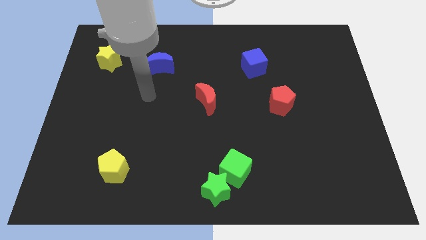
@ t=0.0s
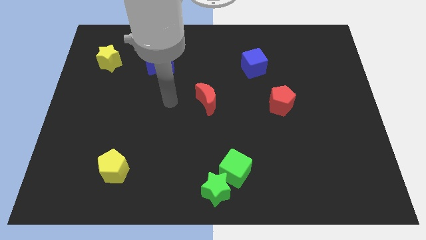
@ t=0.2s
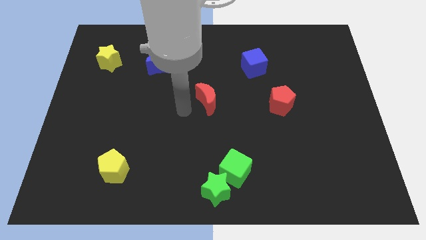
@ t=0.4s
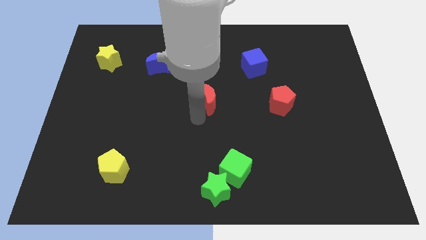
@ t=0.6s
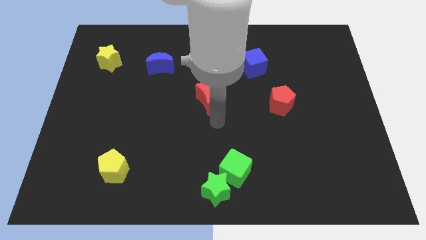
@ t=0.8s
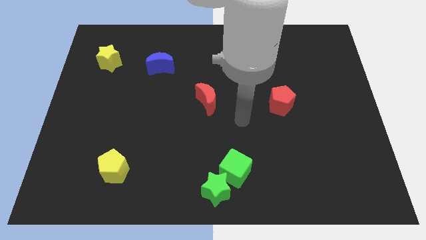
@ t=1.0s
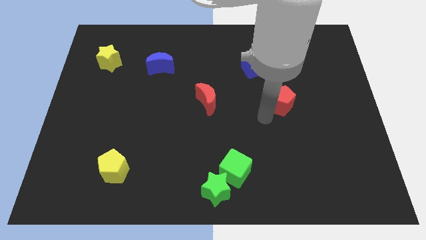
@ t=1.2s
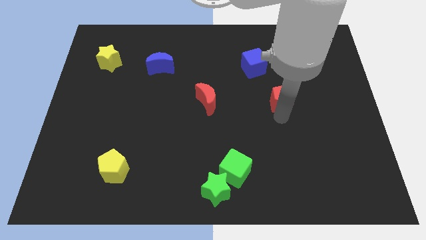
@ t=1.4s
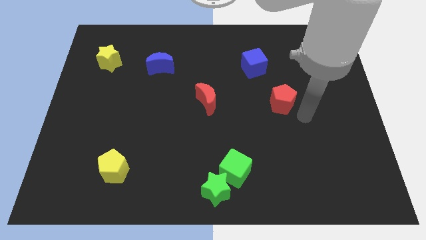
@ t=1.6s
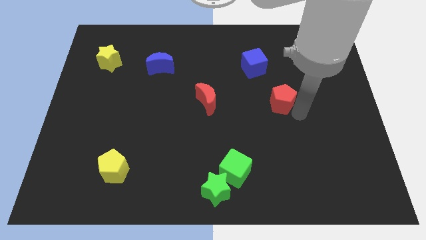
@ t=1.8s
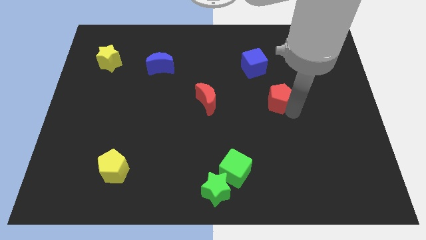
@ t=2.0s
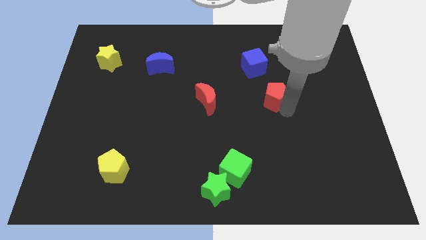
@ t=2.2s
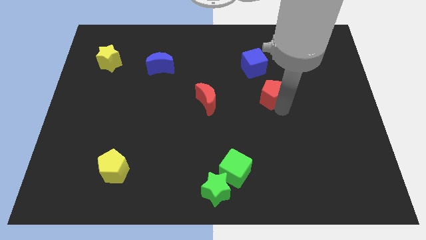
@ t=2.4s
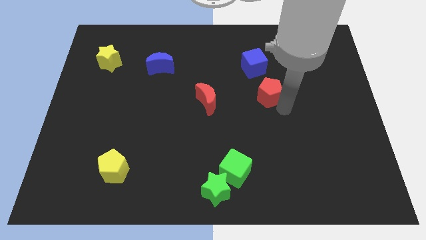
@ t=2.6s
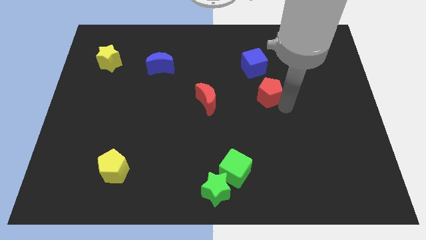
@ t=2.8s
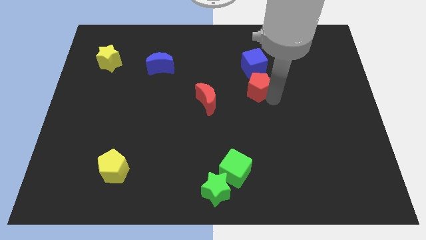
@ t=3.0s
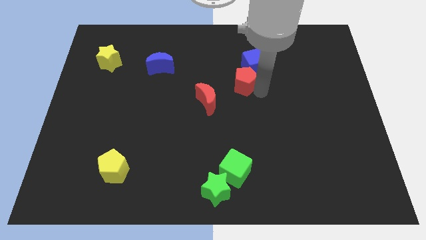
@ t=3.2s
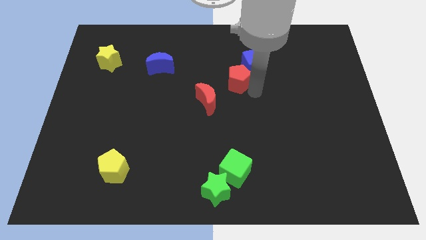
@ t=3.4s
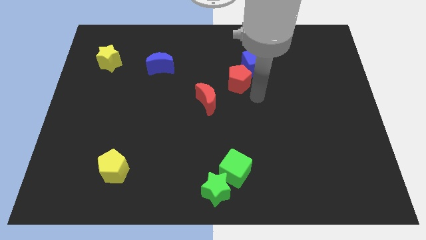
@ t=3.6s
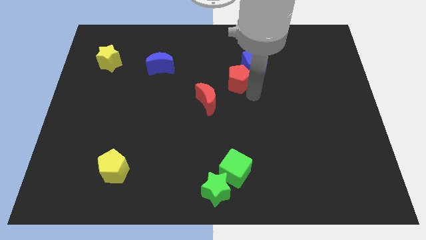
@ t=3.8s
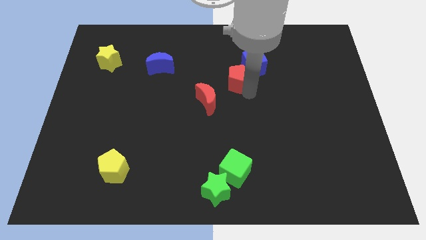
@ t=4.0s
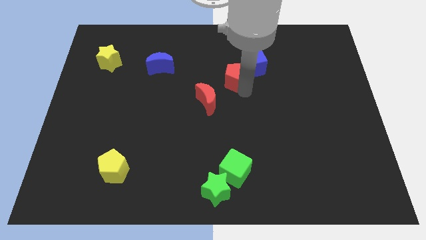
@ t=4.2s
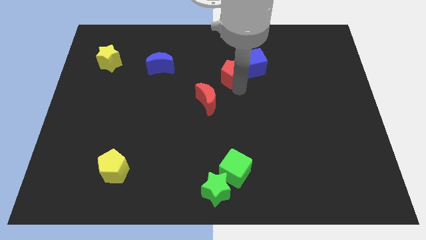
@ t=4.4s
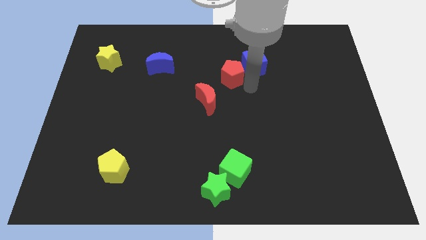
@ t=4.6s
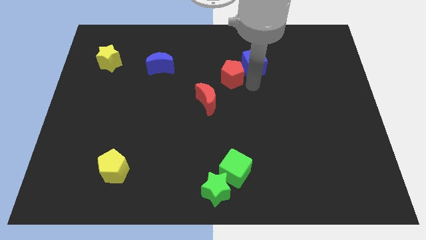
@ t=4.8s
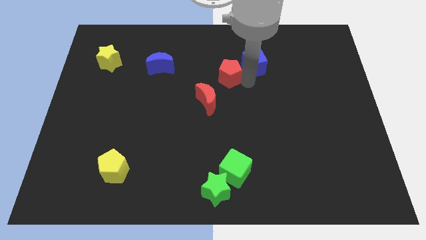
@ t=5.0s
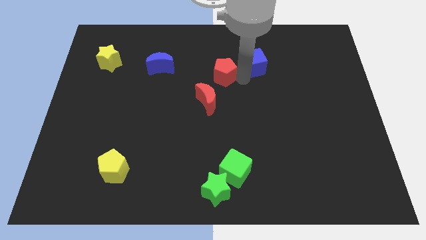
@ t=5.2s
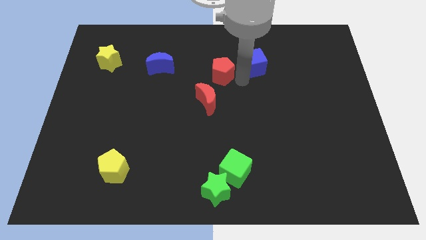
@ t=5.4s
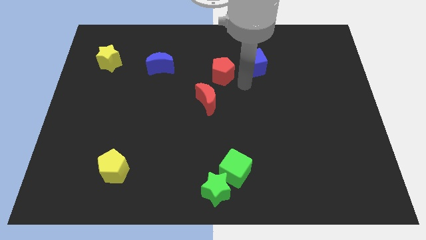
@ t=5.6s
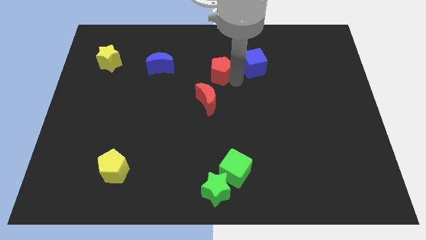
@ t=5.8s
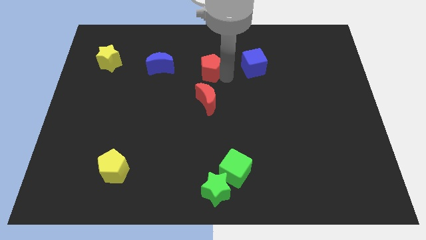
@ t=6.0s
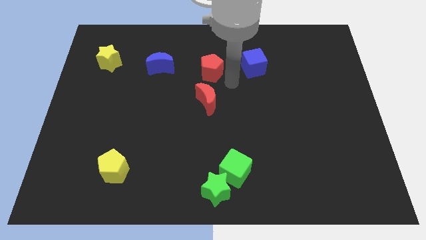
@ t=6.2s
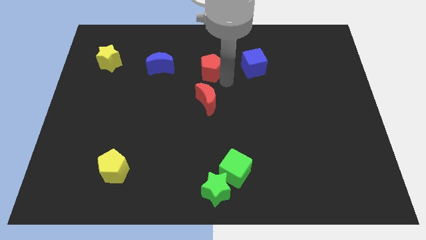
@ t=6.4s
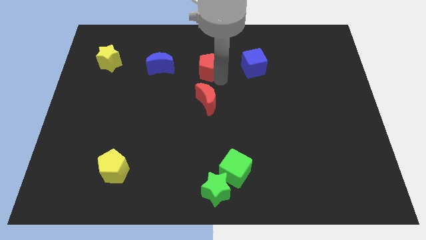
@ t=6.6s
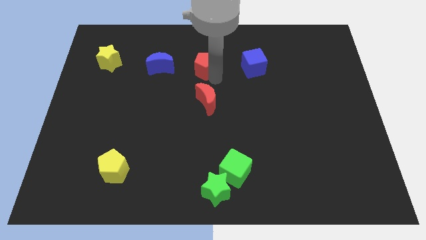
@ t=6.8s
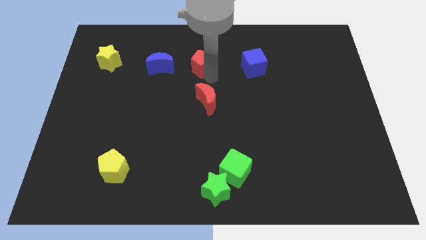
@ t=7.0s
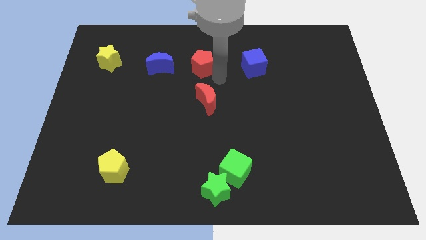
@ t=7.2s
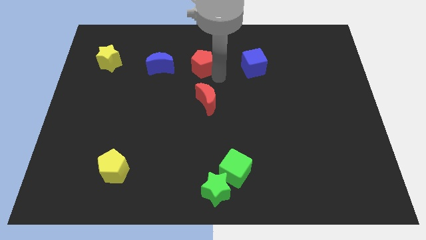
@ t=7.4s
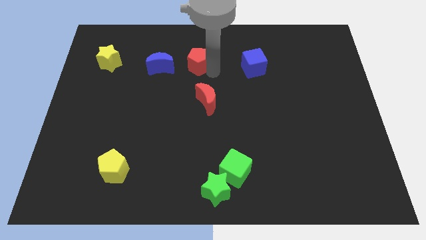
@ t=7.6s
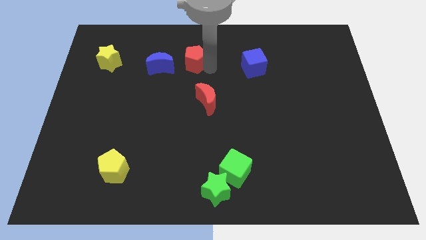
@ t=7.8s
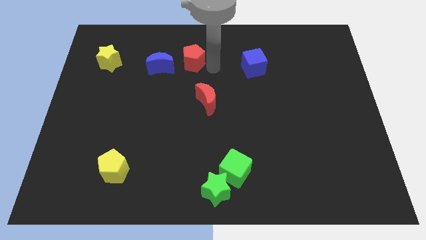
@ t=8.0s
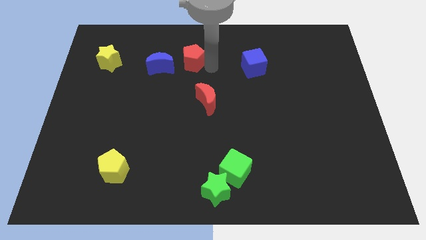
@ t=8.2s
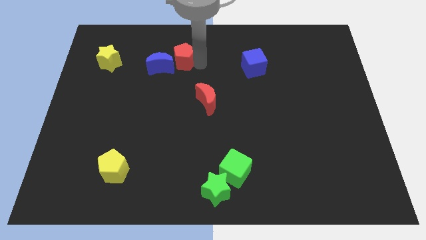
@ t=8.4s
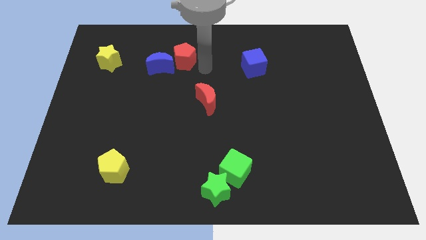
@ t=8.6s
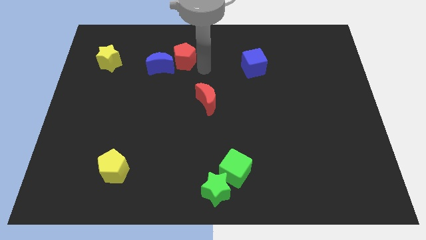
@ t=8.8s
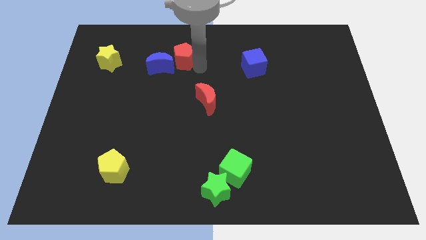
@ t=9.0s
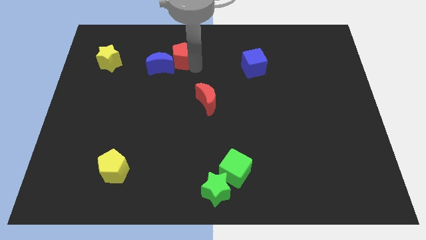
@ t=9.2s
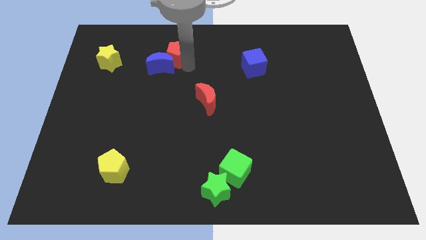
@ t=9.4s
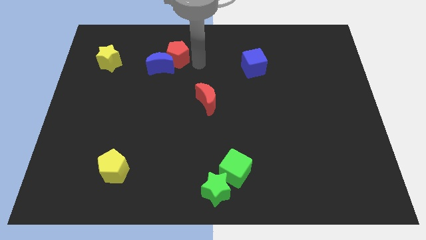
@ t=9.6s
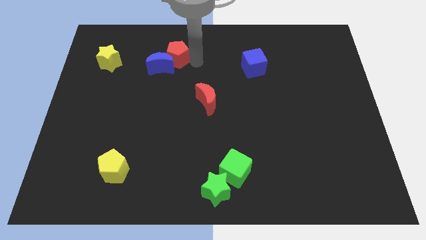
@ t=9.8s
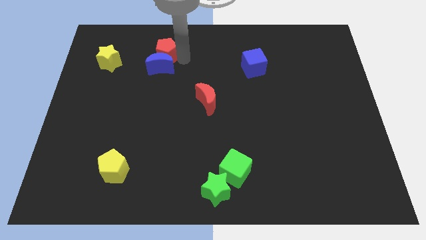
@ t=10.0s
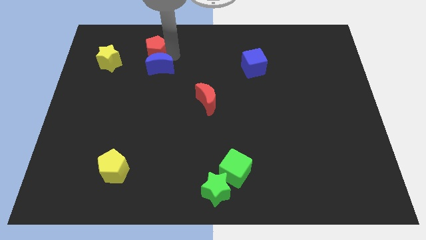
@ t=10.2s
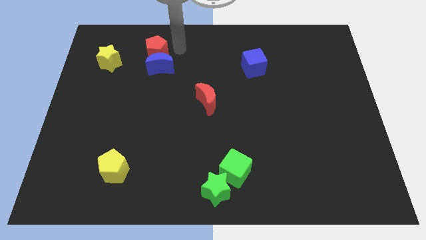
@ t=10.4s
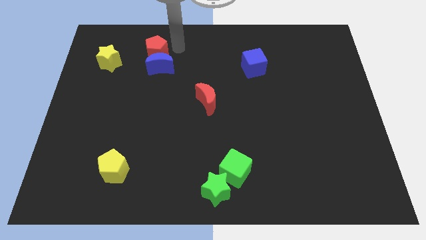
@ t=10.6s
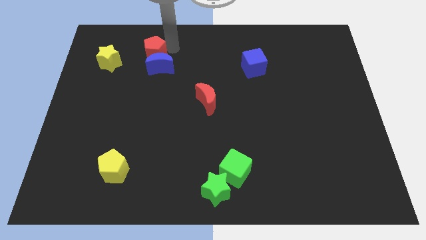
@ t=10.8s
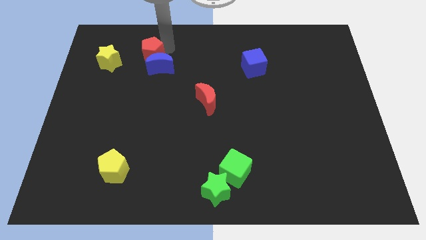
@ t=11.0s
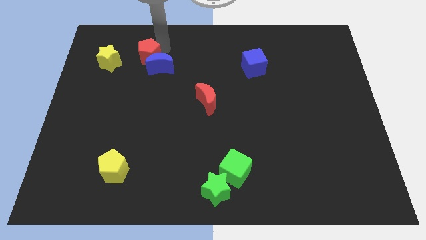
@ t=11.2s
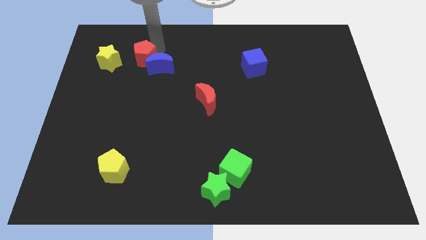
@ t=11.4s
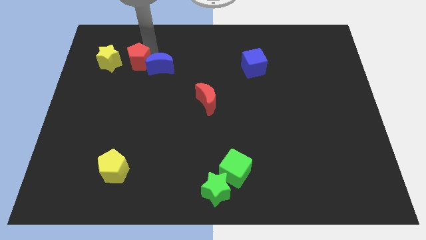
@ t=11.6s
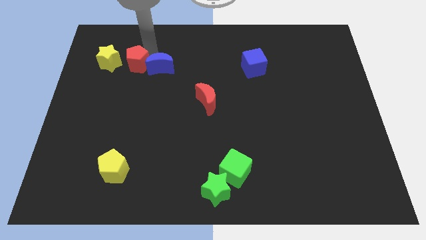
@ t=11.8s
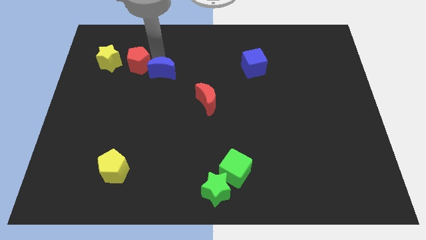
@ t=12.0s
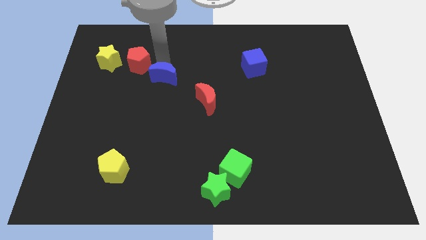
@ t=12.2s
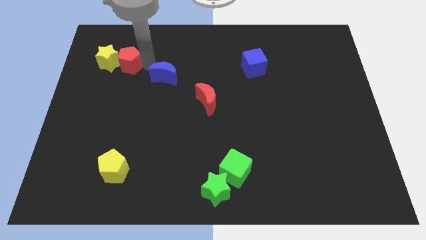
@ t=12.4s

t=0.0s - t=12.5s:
slide the red pentagon next to the yellow star

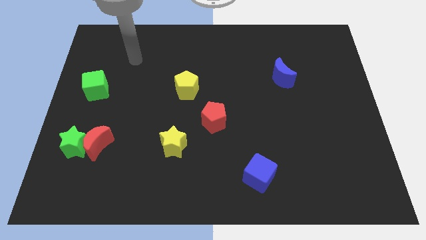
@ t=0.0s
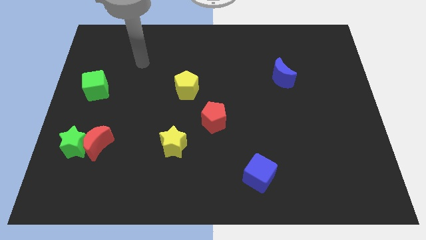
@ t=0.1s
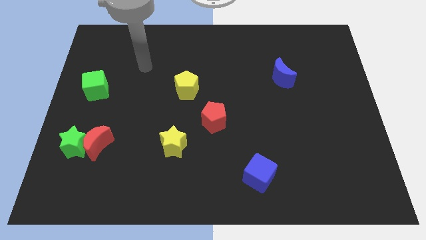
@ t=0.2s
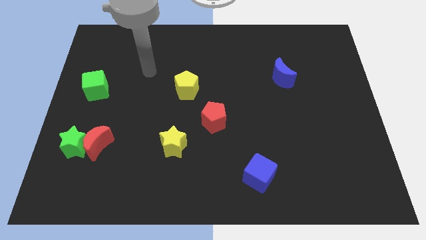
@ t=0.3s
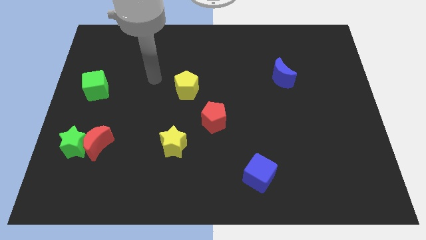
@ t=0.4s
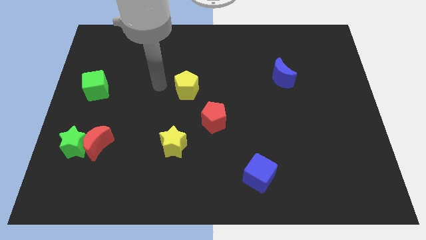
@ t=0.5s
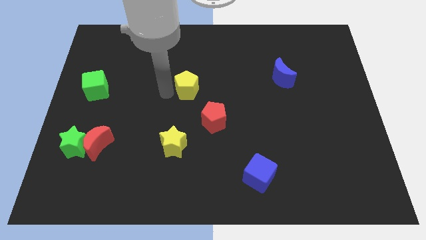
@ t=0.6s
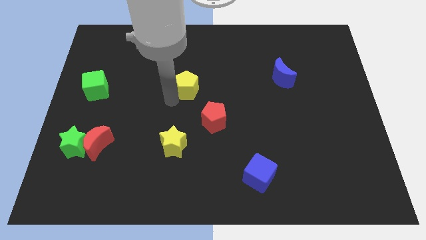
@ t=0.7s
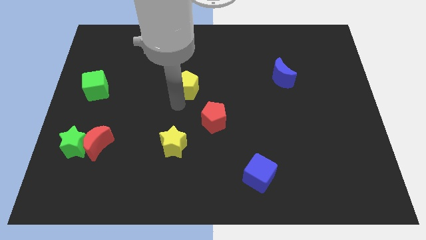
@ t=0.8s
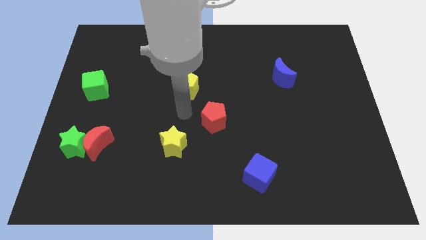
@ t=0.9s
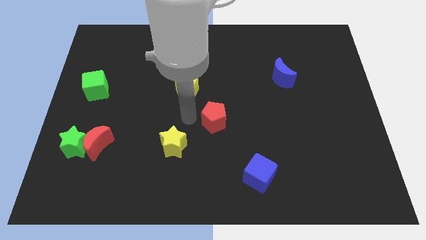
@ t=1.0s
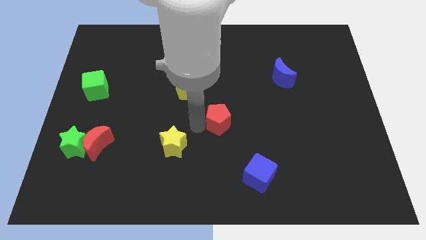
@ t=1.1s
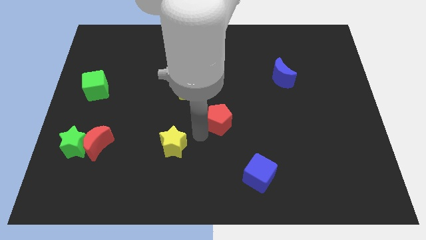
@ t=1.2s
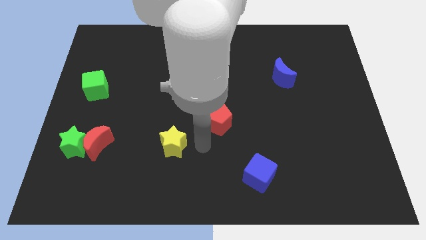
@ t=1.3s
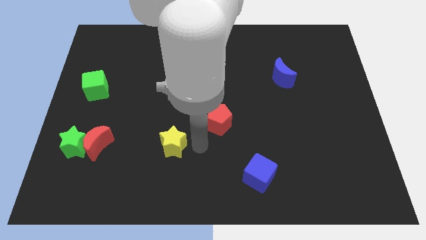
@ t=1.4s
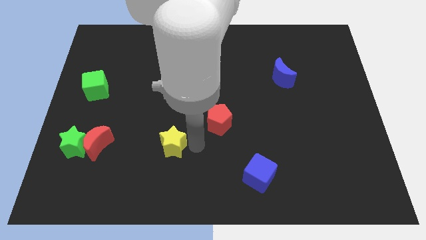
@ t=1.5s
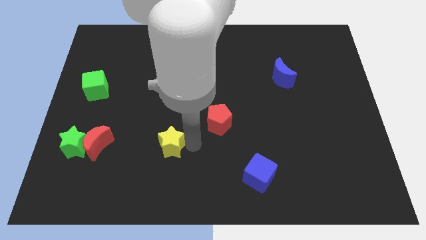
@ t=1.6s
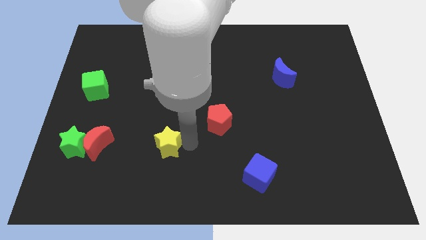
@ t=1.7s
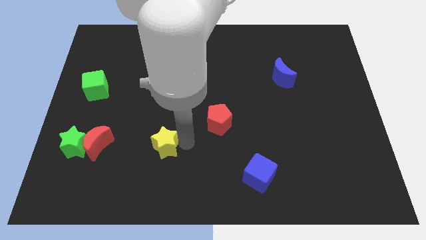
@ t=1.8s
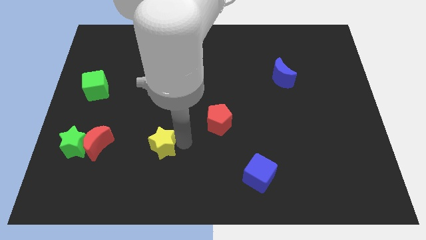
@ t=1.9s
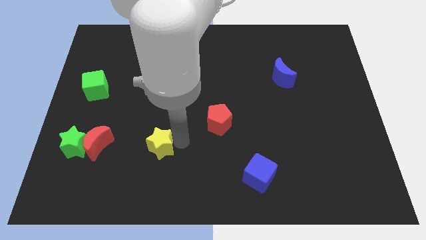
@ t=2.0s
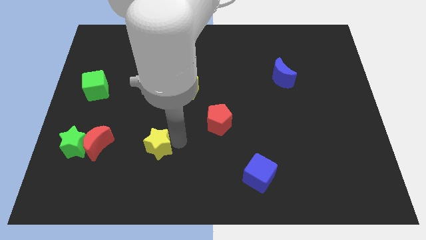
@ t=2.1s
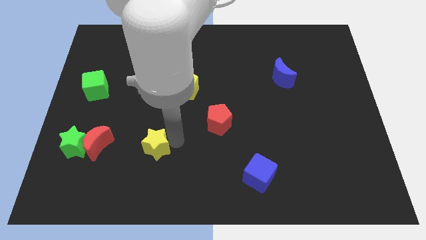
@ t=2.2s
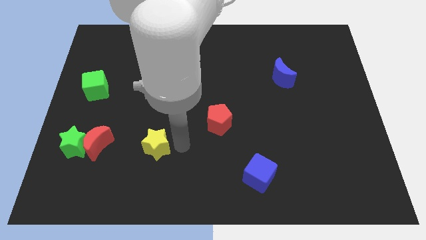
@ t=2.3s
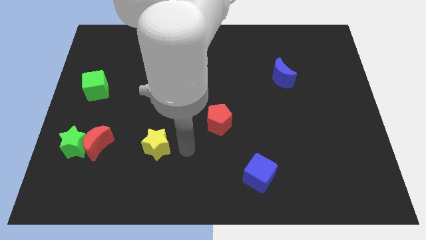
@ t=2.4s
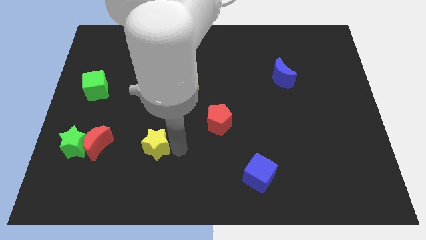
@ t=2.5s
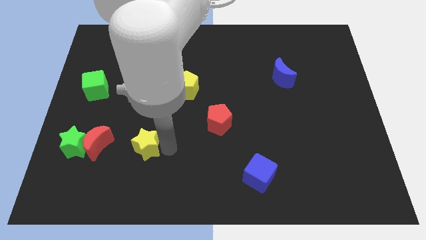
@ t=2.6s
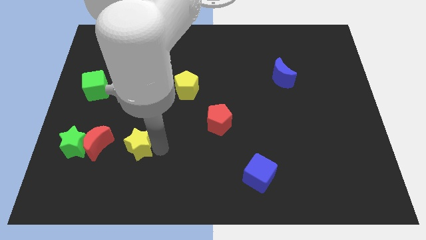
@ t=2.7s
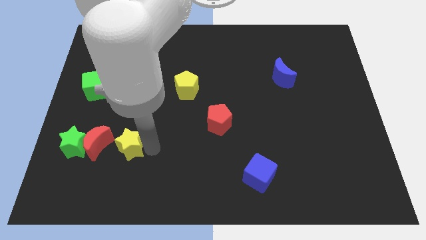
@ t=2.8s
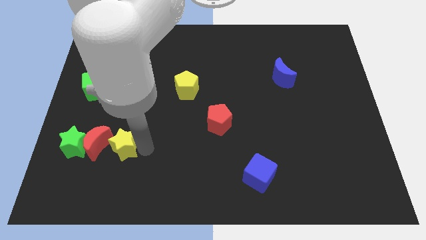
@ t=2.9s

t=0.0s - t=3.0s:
put the yellow star to the red moon
